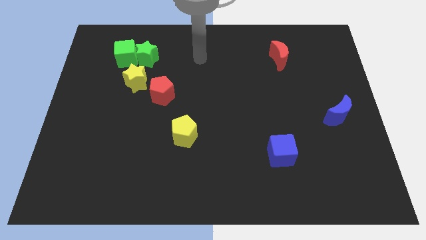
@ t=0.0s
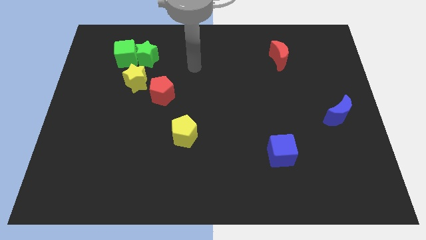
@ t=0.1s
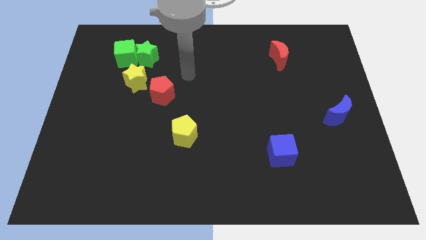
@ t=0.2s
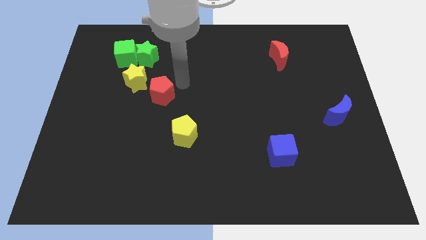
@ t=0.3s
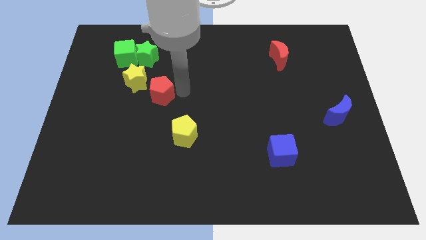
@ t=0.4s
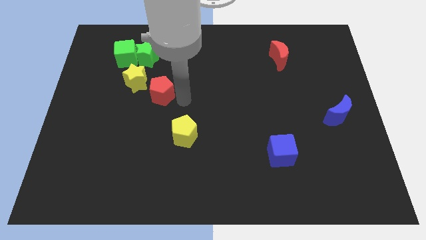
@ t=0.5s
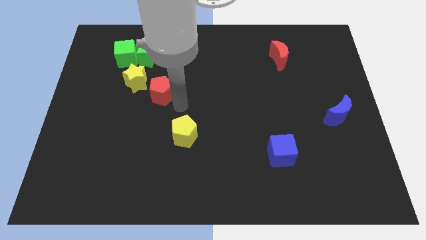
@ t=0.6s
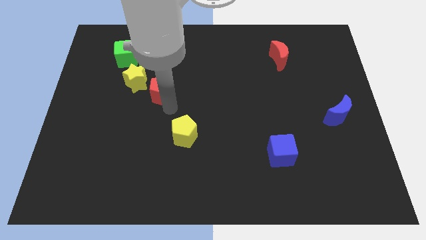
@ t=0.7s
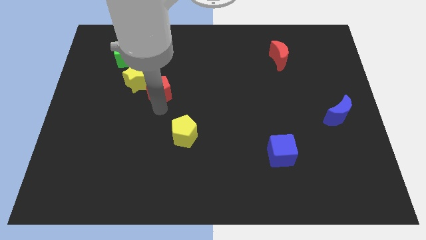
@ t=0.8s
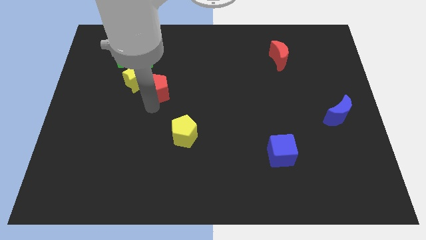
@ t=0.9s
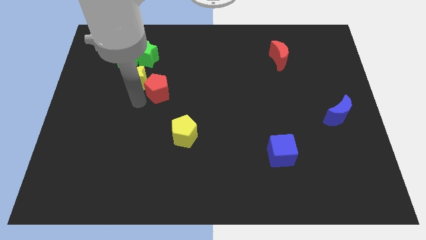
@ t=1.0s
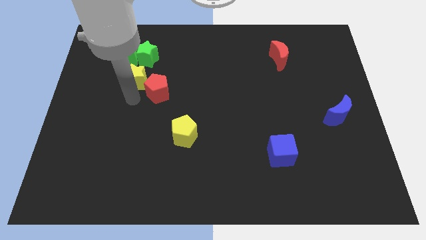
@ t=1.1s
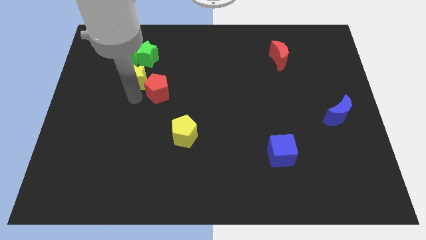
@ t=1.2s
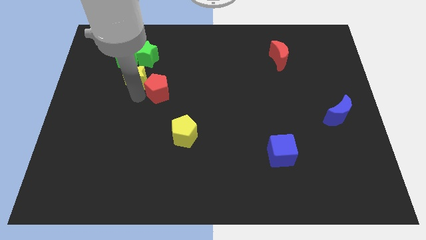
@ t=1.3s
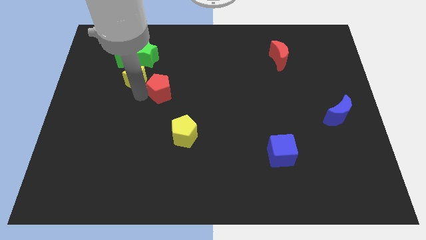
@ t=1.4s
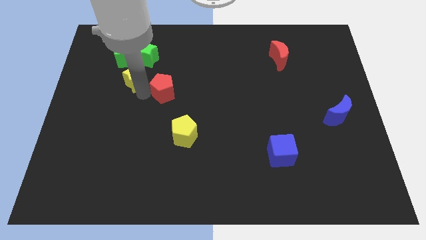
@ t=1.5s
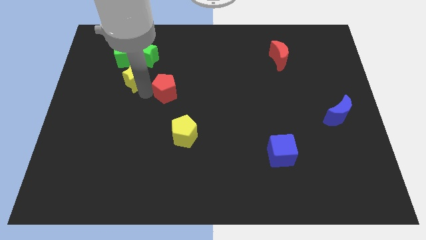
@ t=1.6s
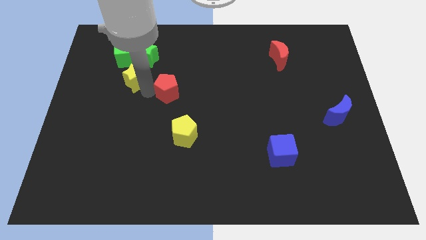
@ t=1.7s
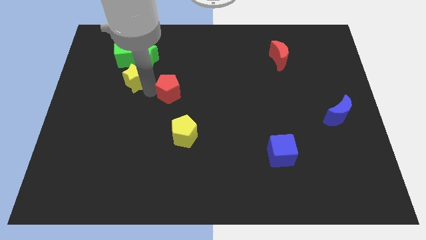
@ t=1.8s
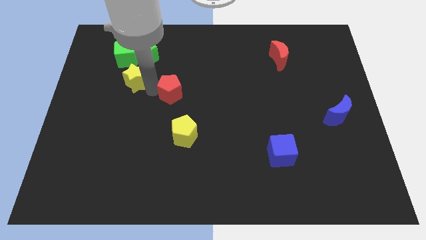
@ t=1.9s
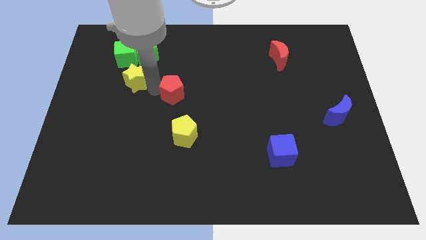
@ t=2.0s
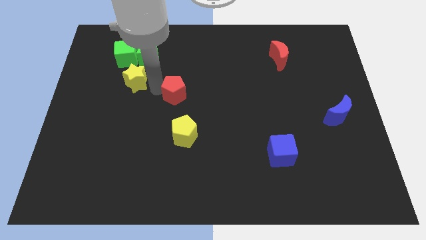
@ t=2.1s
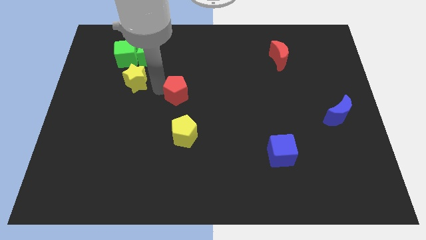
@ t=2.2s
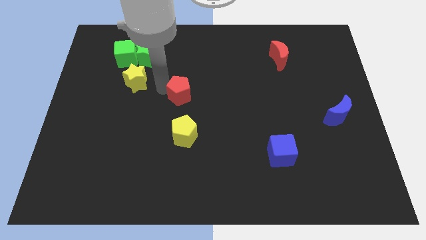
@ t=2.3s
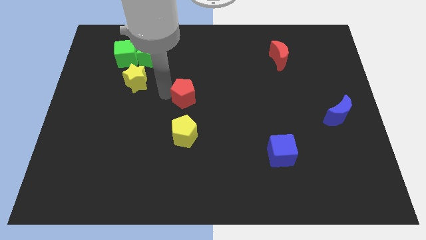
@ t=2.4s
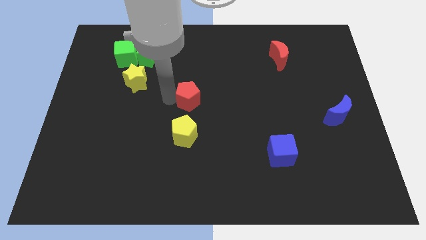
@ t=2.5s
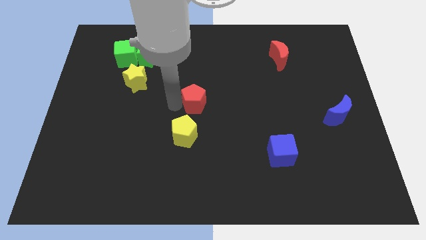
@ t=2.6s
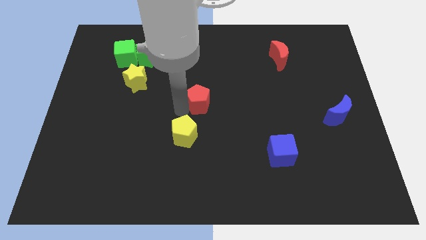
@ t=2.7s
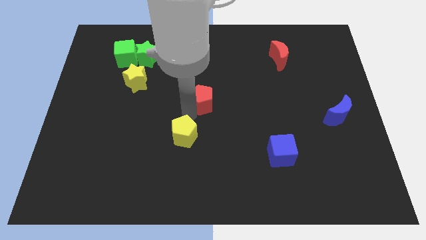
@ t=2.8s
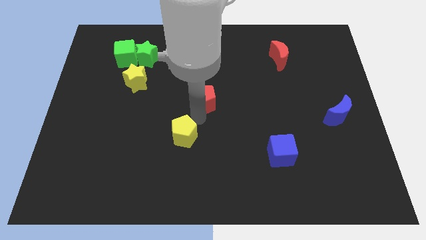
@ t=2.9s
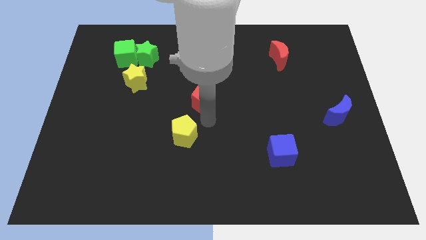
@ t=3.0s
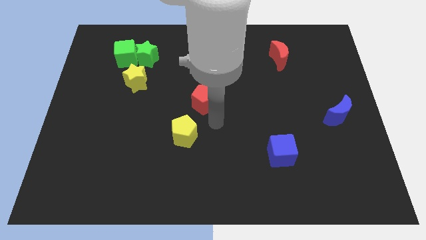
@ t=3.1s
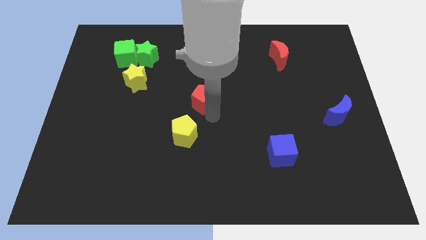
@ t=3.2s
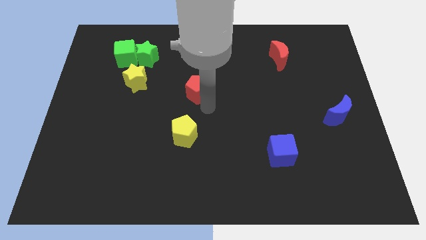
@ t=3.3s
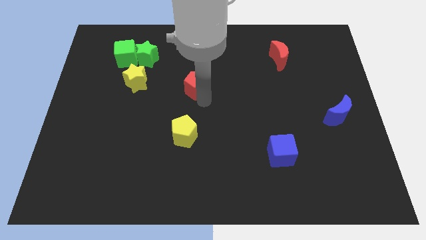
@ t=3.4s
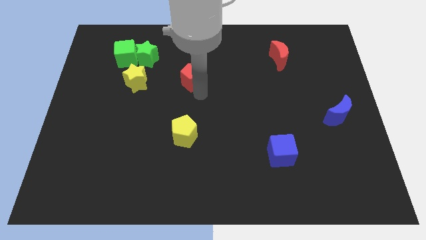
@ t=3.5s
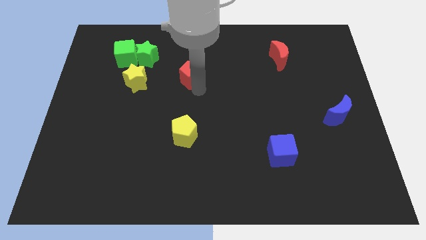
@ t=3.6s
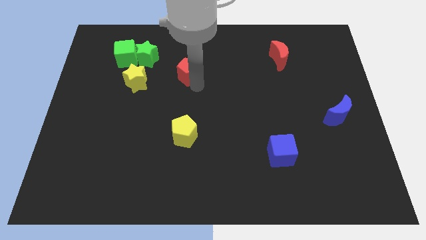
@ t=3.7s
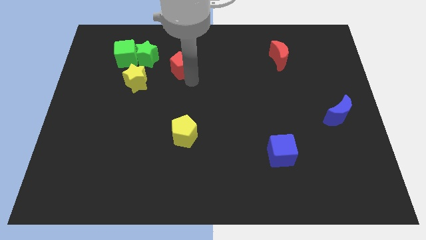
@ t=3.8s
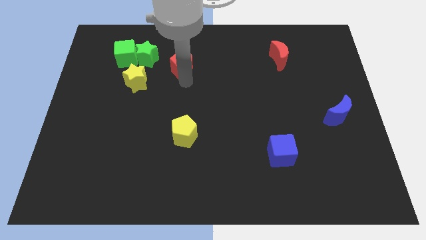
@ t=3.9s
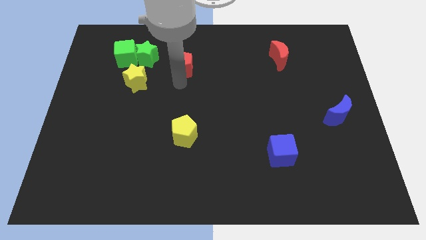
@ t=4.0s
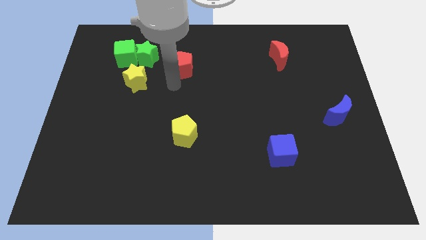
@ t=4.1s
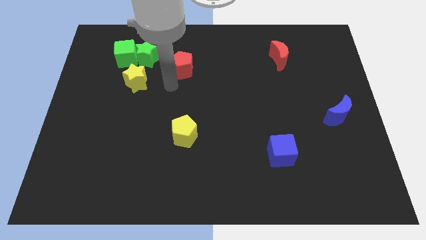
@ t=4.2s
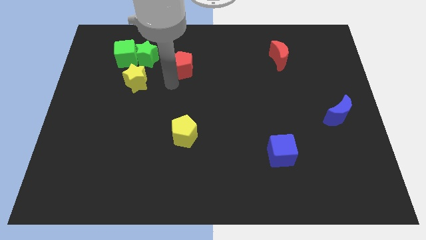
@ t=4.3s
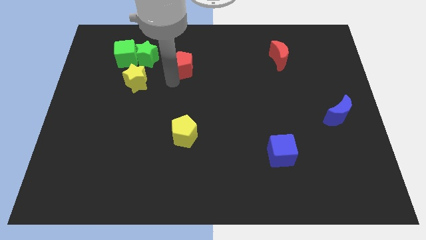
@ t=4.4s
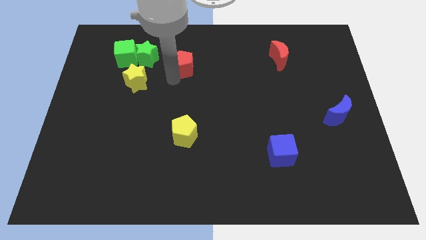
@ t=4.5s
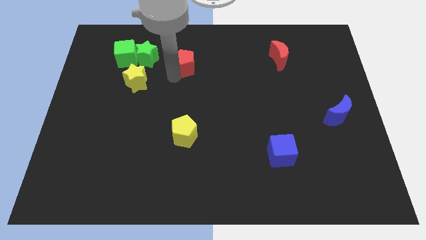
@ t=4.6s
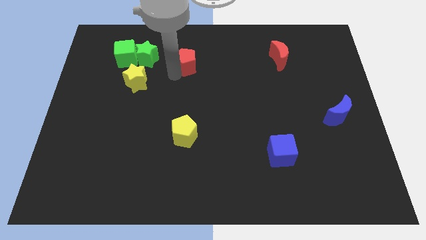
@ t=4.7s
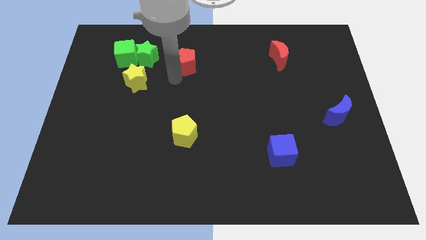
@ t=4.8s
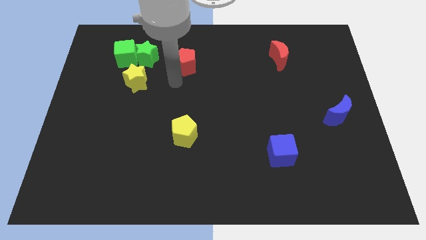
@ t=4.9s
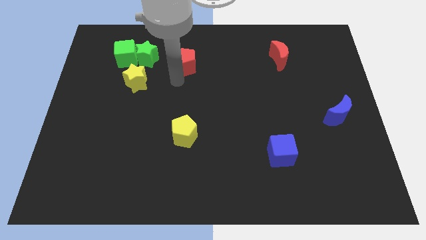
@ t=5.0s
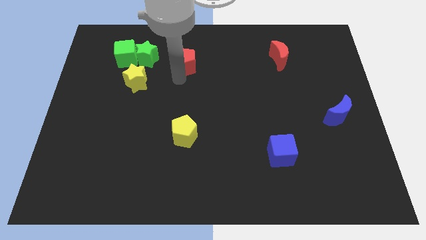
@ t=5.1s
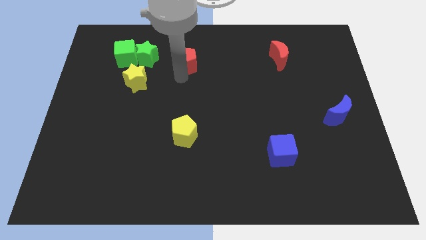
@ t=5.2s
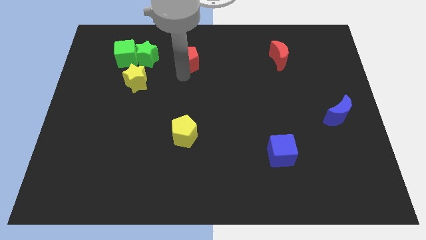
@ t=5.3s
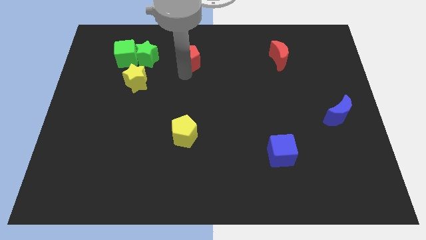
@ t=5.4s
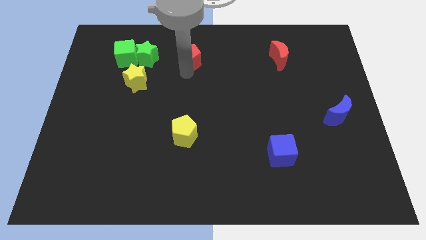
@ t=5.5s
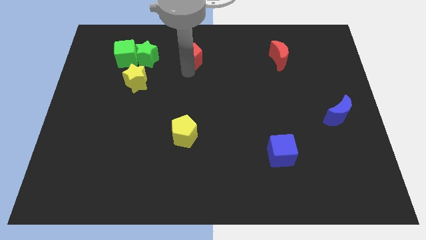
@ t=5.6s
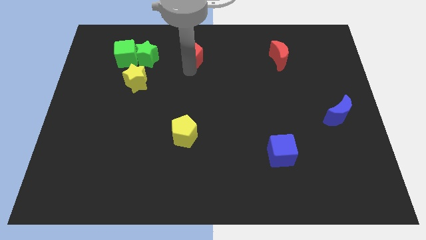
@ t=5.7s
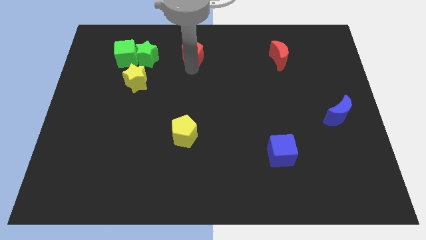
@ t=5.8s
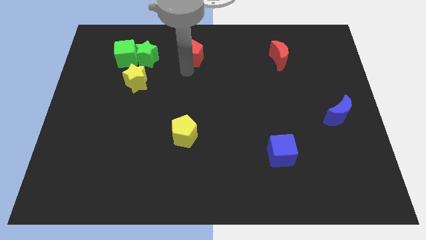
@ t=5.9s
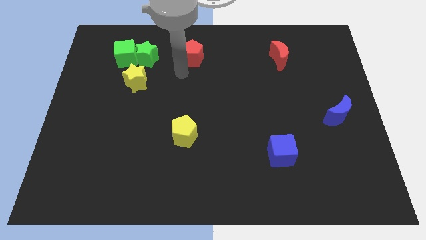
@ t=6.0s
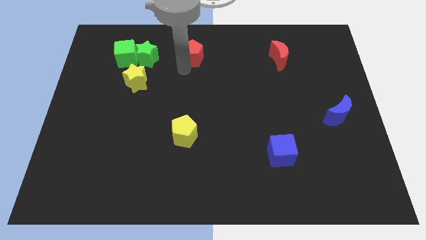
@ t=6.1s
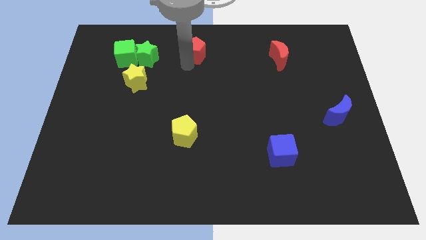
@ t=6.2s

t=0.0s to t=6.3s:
push the red pentagon to the towards your base
